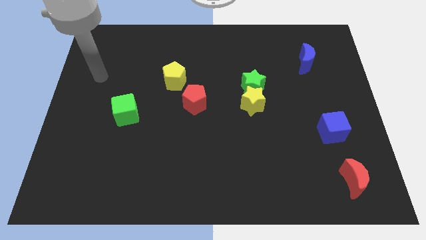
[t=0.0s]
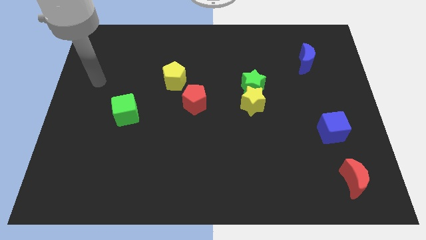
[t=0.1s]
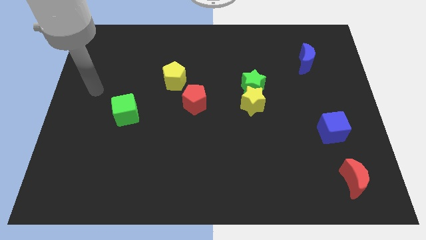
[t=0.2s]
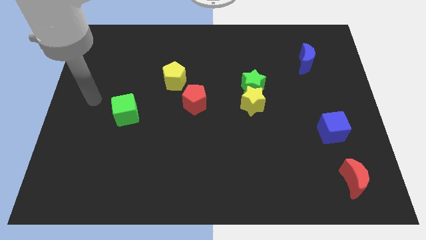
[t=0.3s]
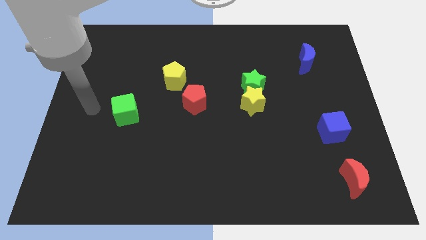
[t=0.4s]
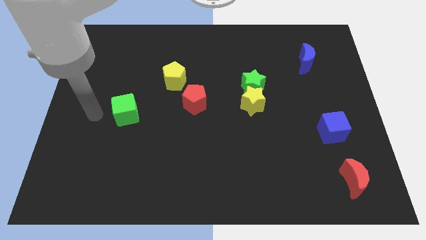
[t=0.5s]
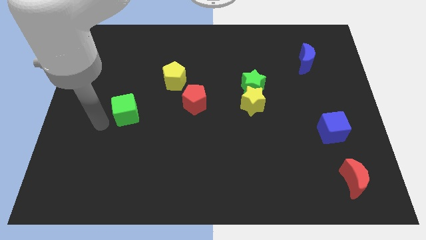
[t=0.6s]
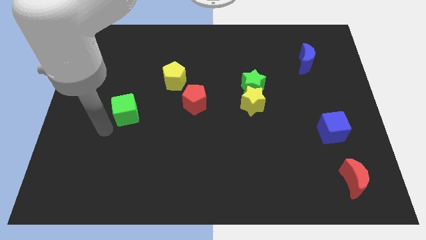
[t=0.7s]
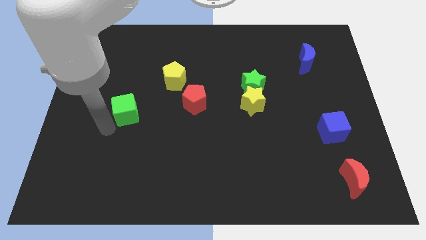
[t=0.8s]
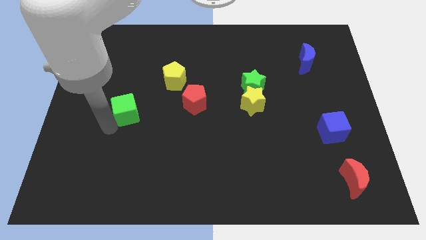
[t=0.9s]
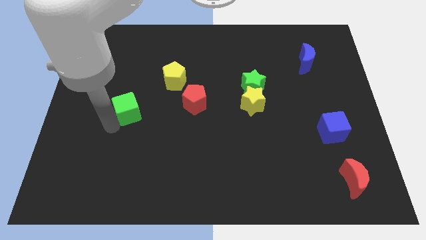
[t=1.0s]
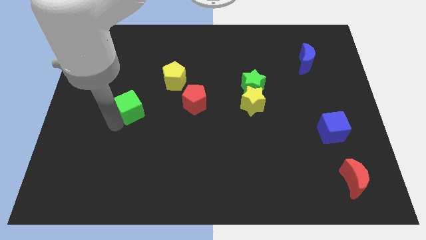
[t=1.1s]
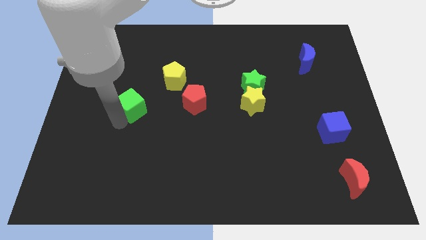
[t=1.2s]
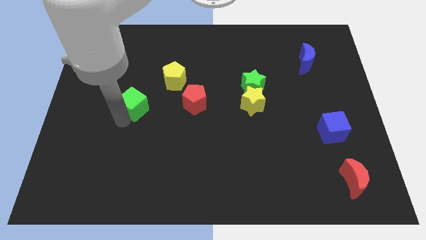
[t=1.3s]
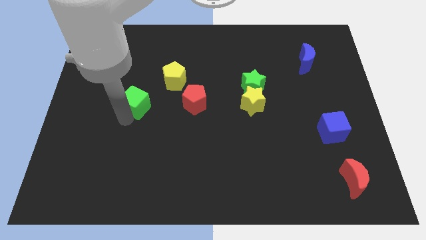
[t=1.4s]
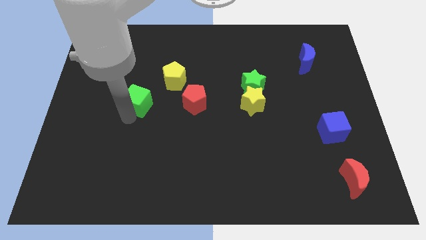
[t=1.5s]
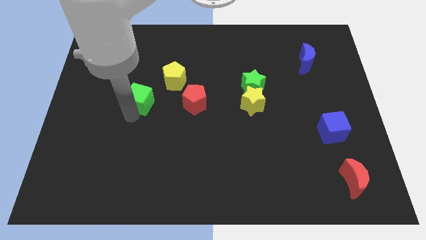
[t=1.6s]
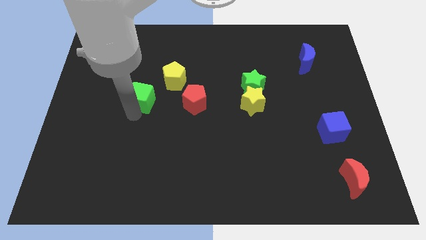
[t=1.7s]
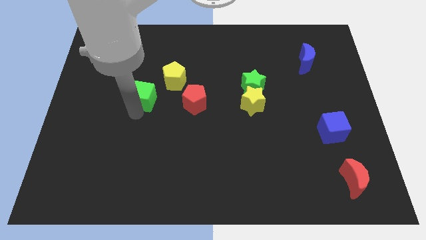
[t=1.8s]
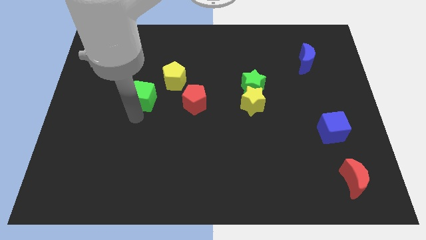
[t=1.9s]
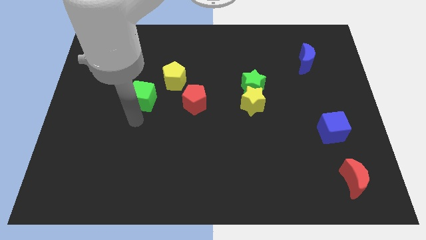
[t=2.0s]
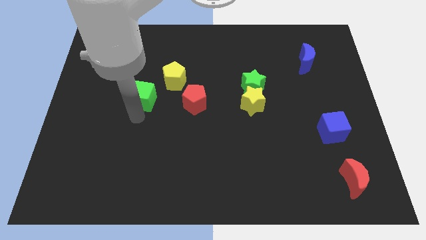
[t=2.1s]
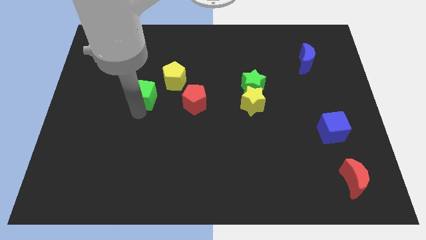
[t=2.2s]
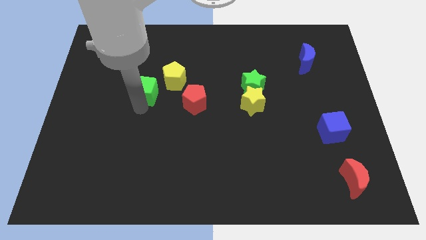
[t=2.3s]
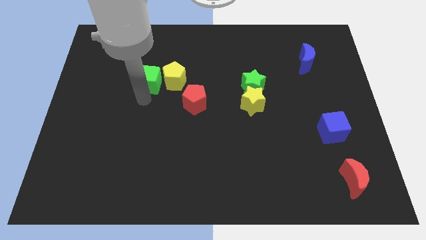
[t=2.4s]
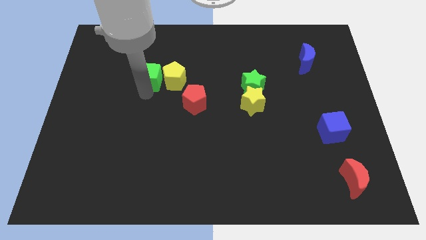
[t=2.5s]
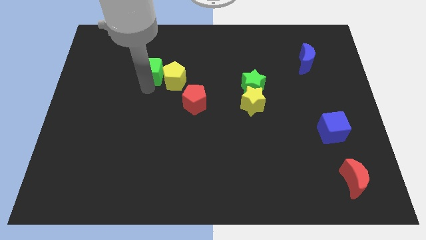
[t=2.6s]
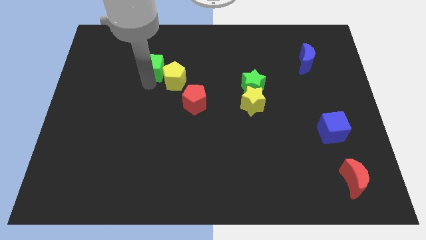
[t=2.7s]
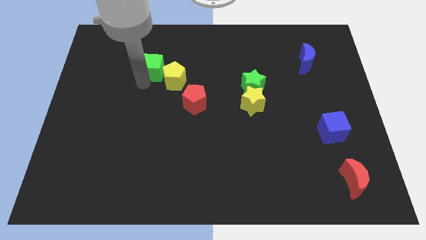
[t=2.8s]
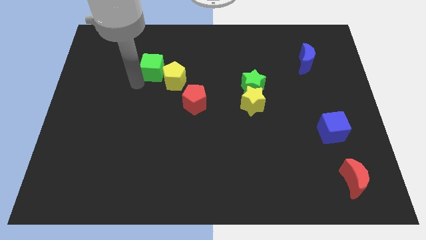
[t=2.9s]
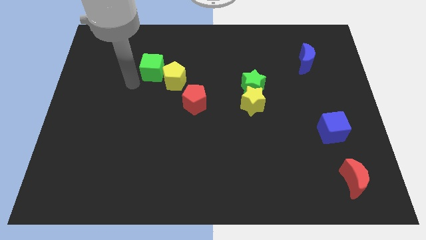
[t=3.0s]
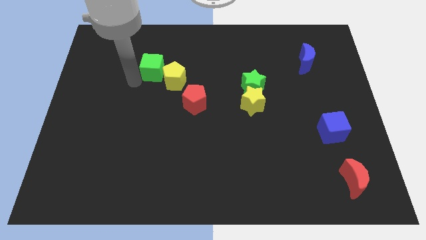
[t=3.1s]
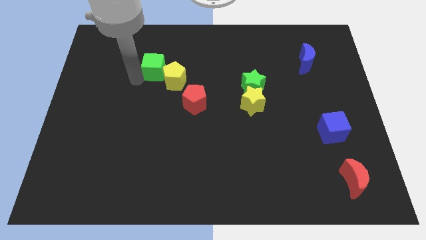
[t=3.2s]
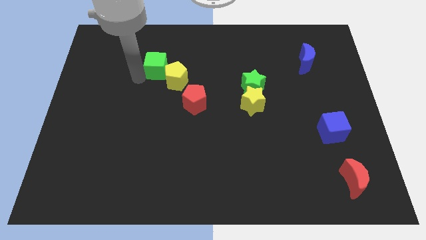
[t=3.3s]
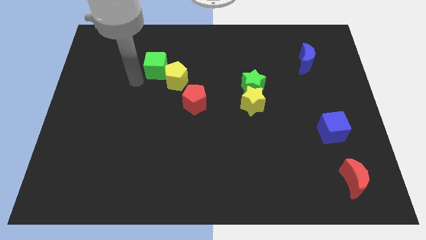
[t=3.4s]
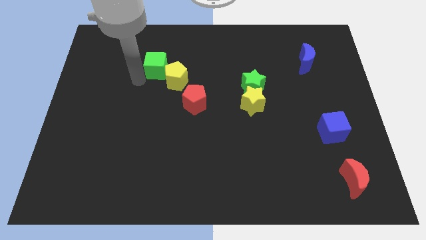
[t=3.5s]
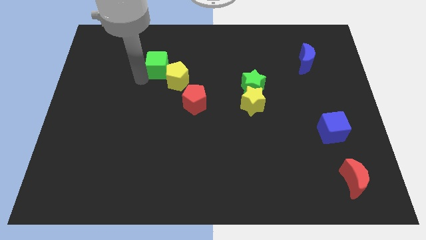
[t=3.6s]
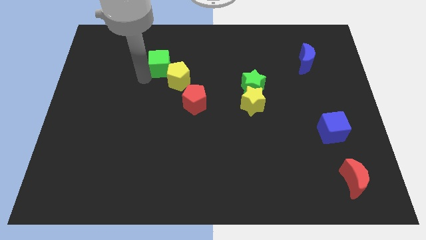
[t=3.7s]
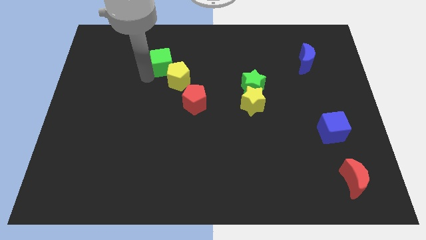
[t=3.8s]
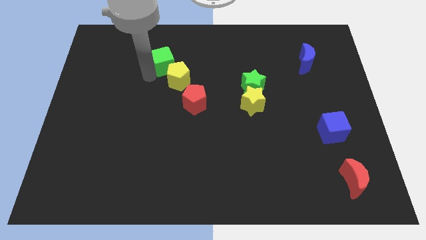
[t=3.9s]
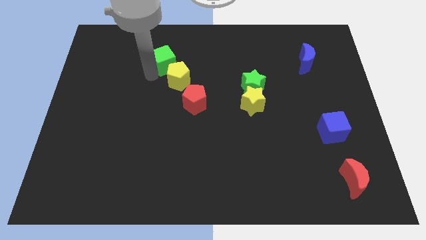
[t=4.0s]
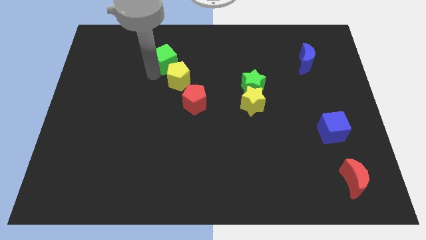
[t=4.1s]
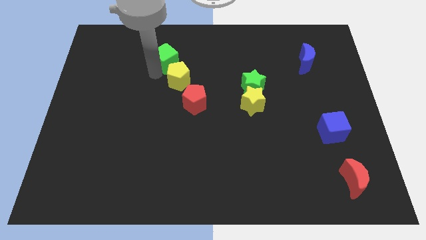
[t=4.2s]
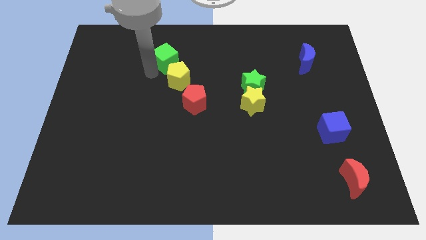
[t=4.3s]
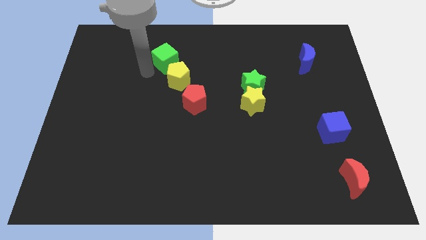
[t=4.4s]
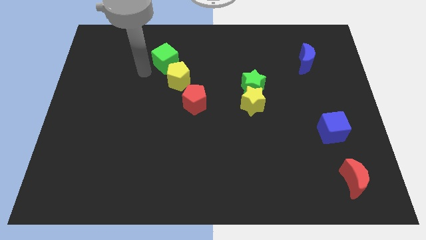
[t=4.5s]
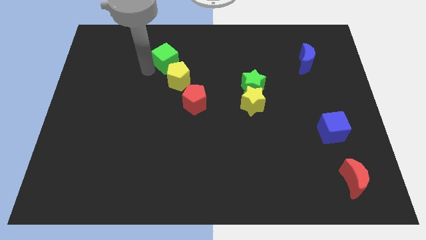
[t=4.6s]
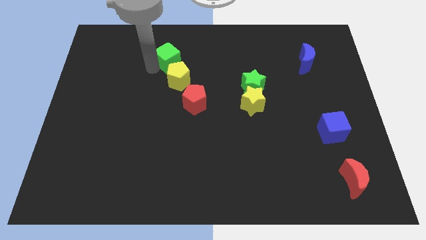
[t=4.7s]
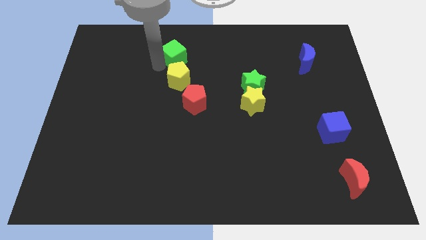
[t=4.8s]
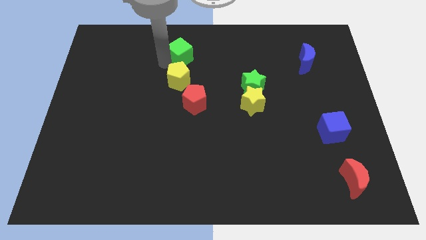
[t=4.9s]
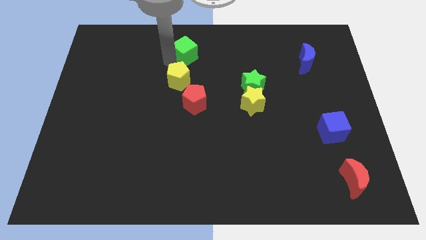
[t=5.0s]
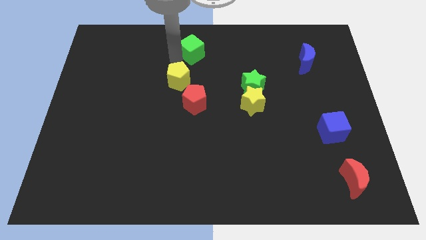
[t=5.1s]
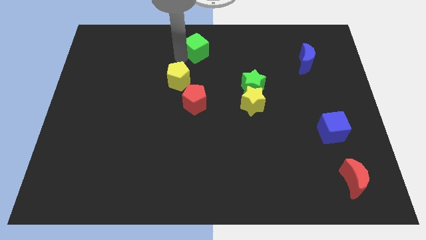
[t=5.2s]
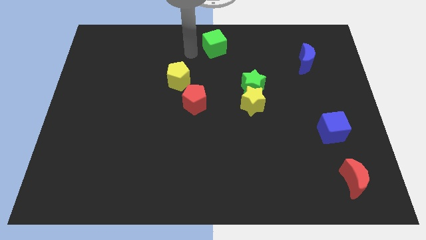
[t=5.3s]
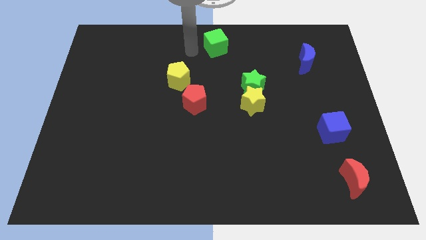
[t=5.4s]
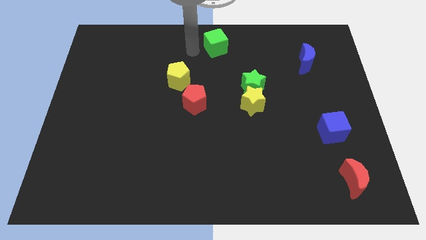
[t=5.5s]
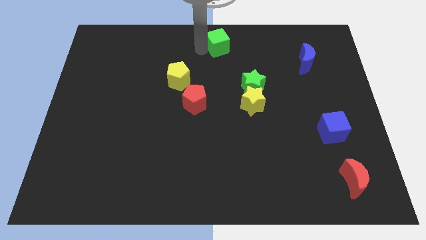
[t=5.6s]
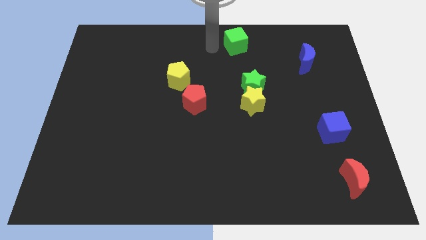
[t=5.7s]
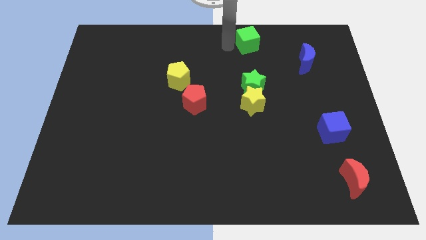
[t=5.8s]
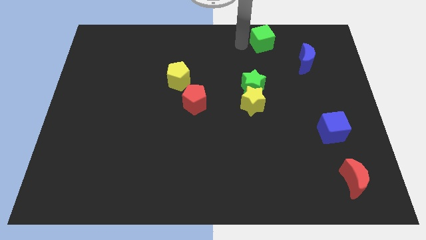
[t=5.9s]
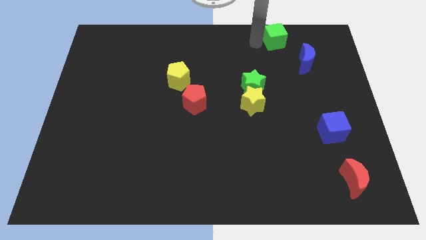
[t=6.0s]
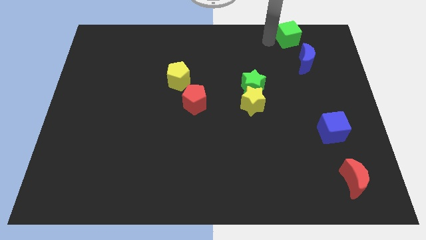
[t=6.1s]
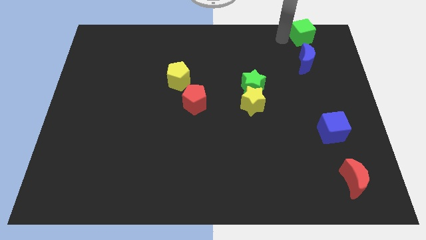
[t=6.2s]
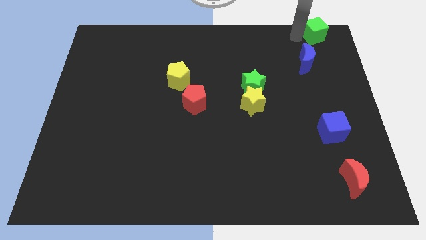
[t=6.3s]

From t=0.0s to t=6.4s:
move the green cube to the top right corner

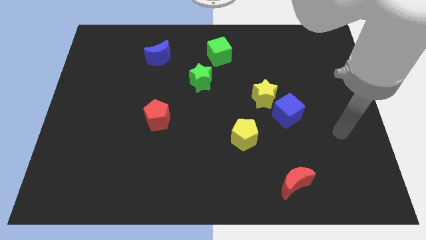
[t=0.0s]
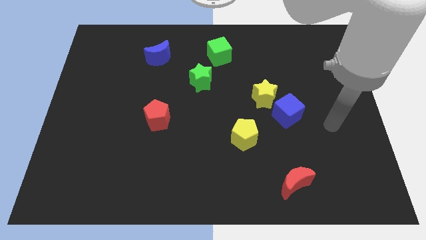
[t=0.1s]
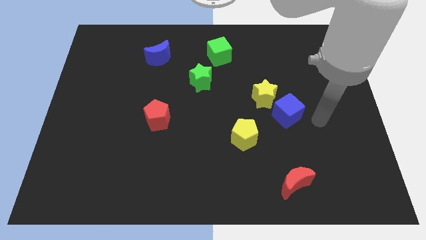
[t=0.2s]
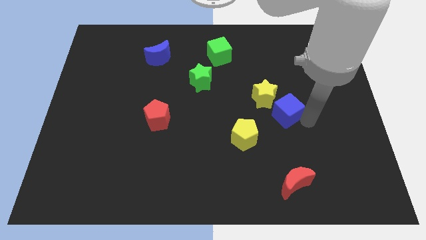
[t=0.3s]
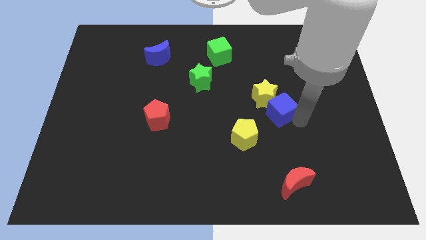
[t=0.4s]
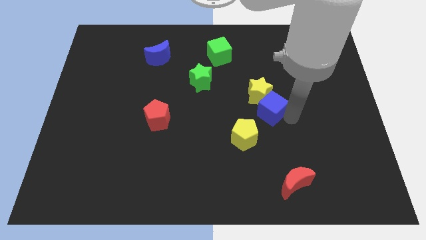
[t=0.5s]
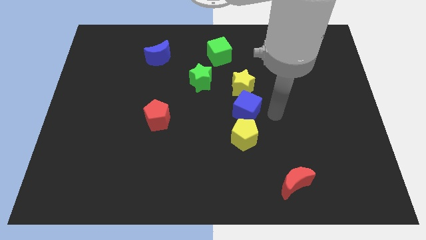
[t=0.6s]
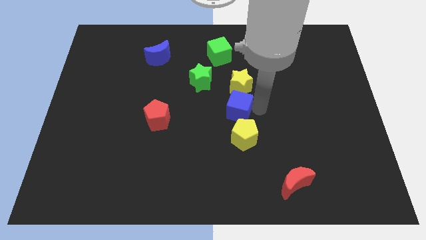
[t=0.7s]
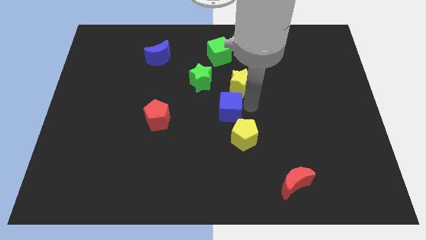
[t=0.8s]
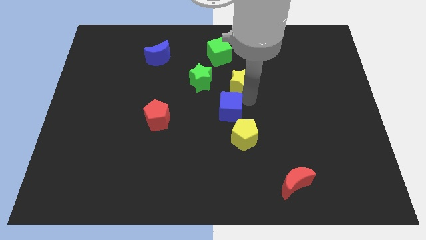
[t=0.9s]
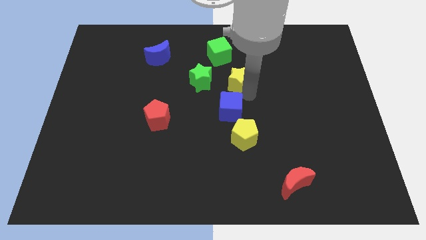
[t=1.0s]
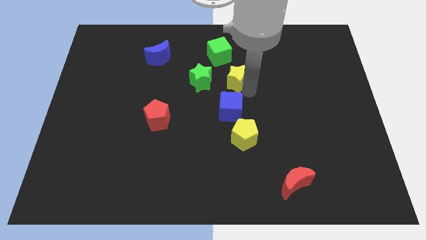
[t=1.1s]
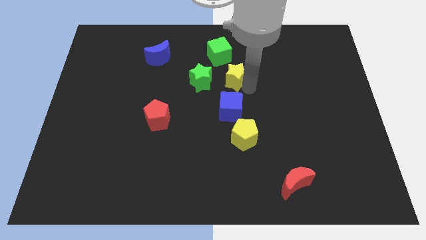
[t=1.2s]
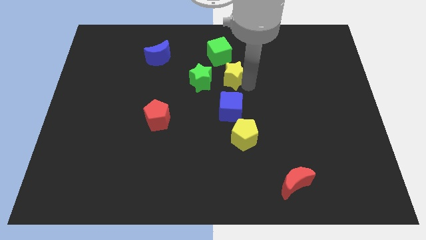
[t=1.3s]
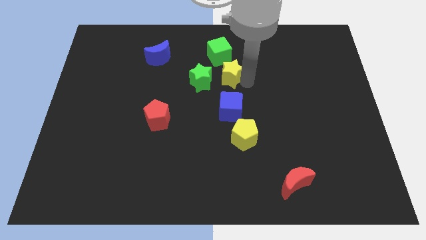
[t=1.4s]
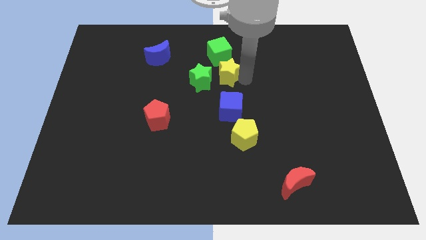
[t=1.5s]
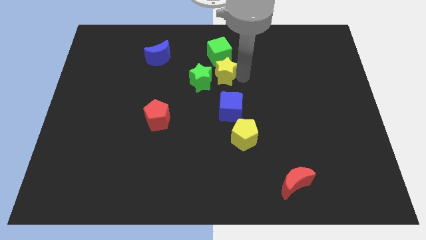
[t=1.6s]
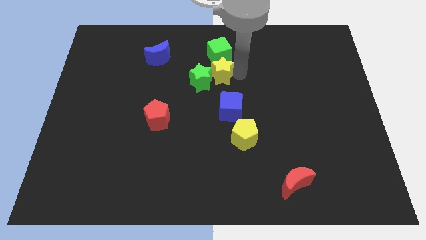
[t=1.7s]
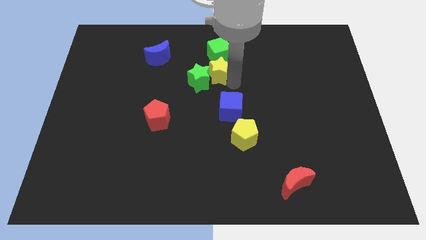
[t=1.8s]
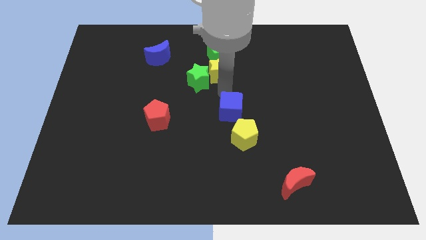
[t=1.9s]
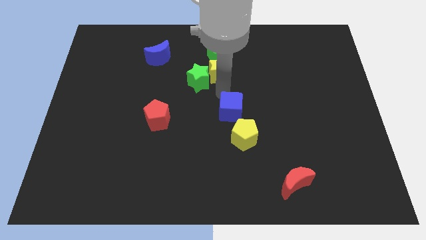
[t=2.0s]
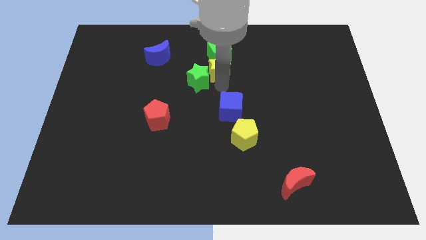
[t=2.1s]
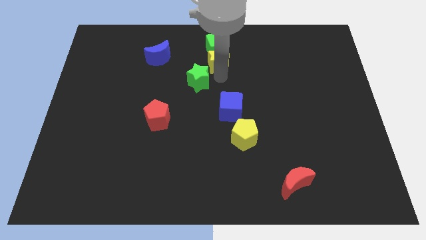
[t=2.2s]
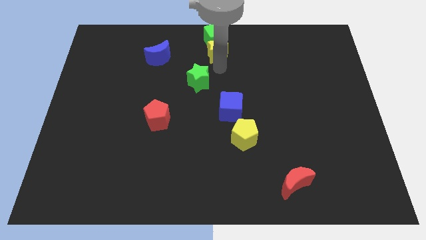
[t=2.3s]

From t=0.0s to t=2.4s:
push the yellow star to the top
